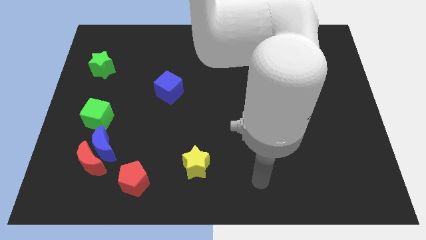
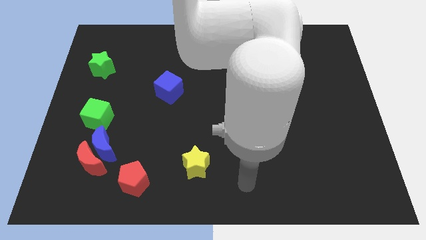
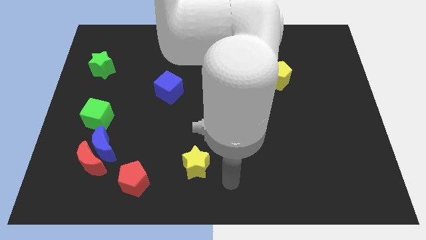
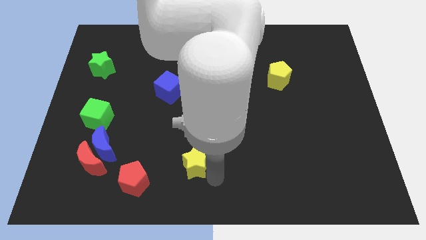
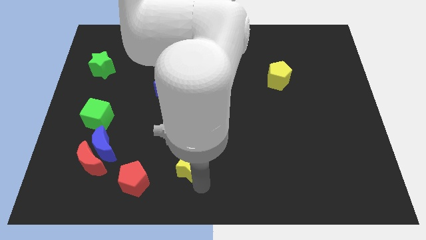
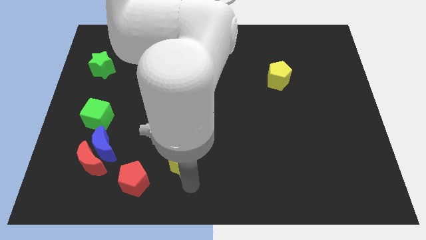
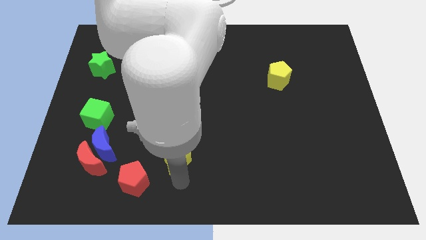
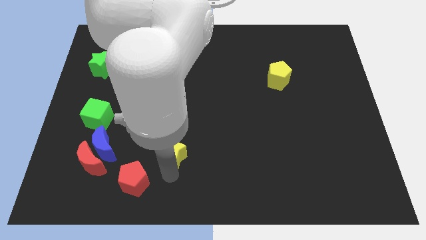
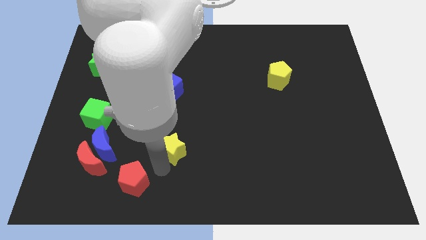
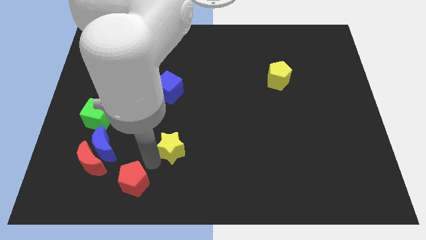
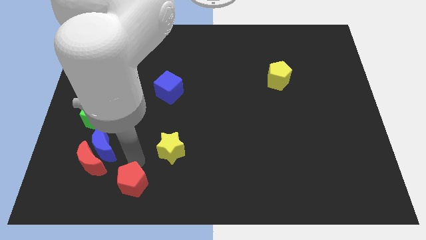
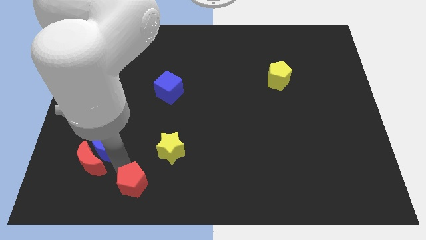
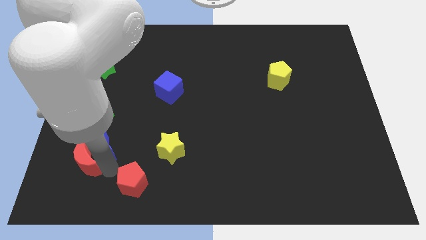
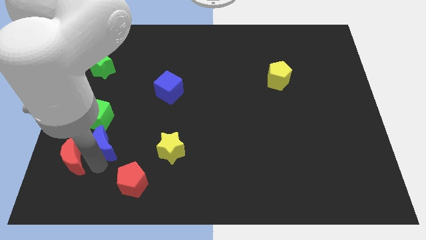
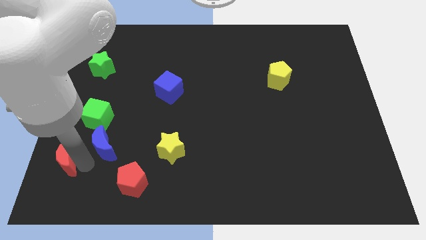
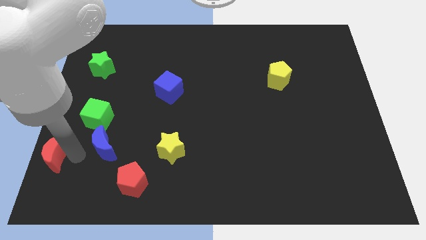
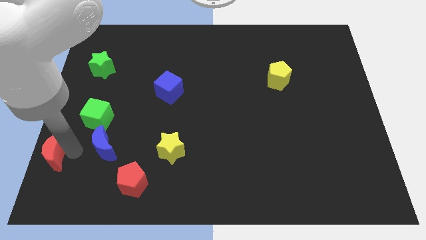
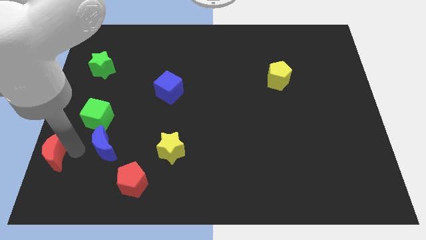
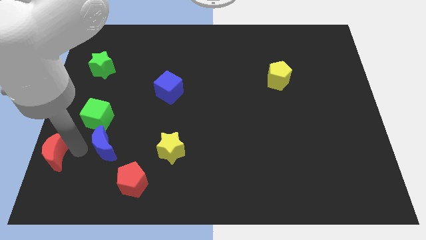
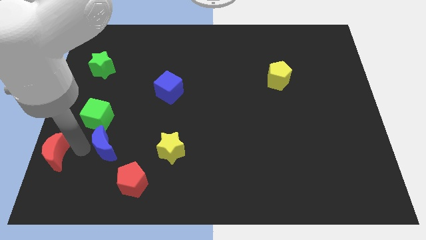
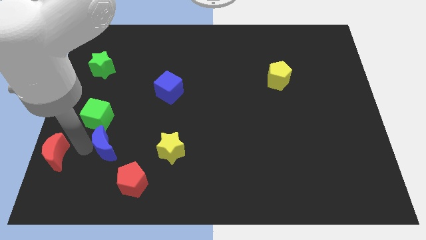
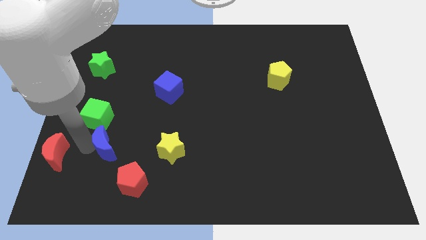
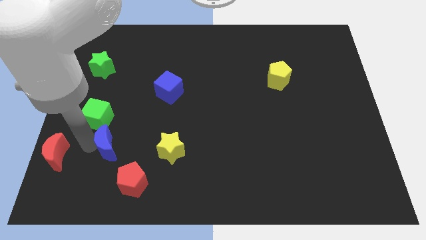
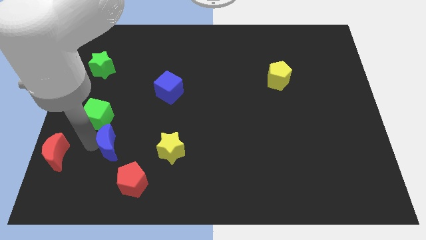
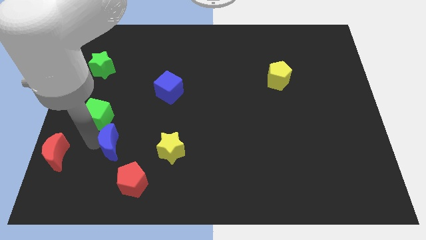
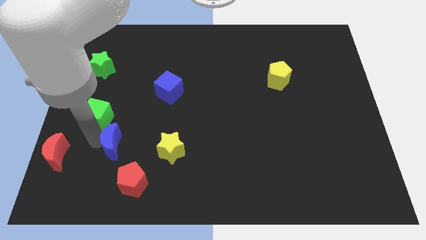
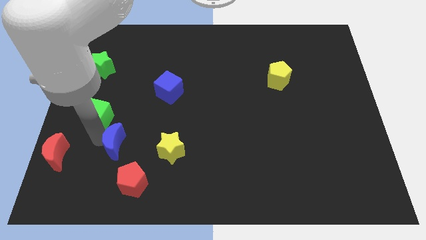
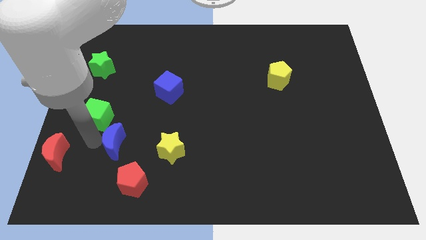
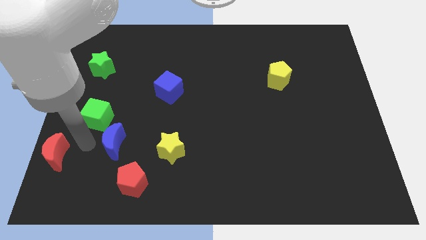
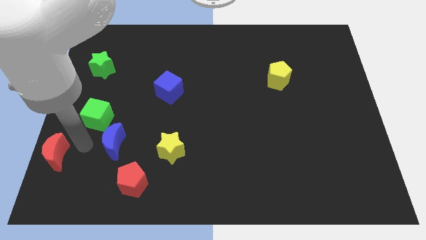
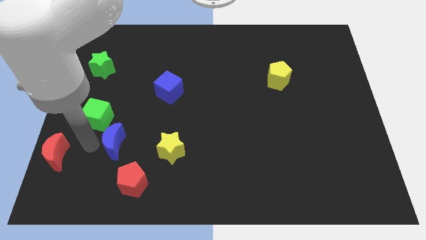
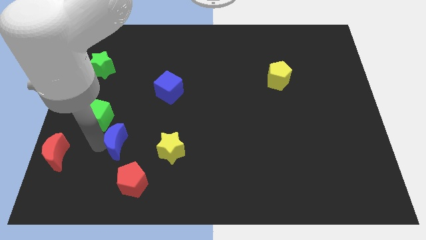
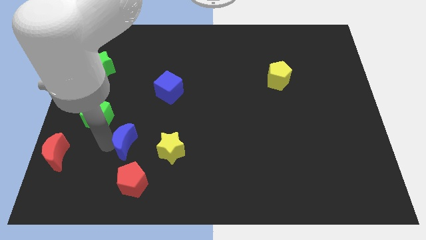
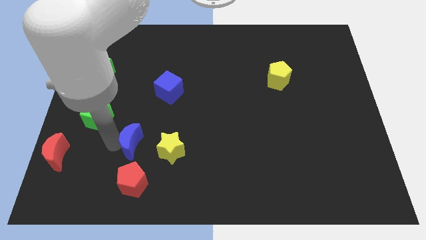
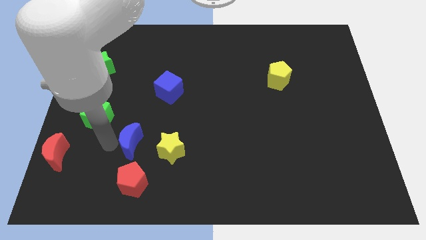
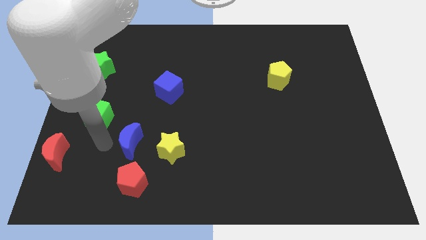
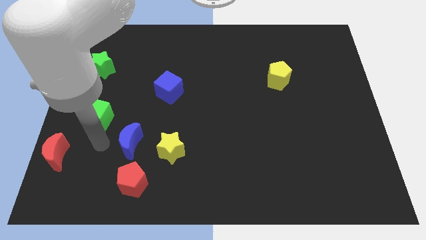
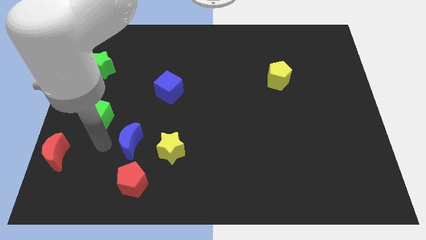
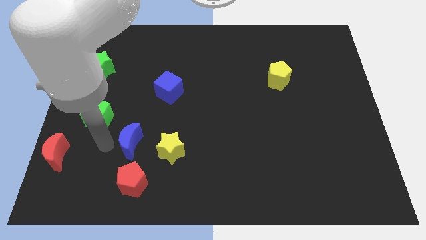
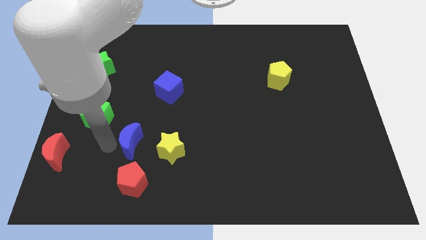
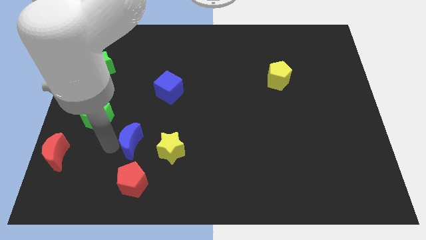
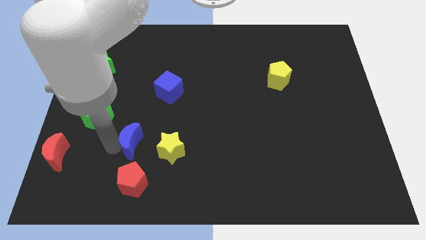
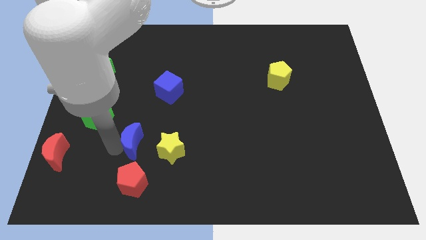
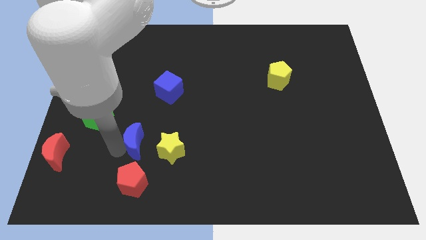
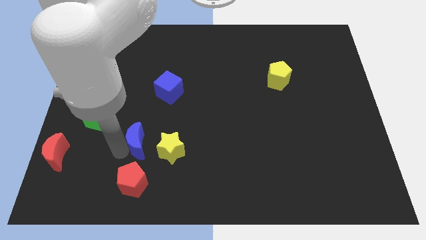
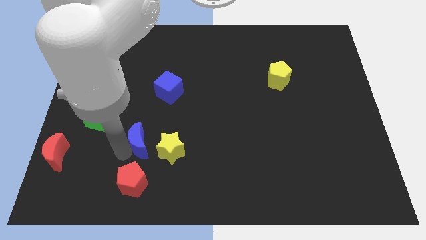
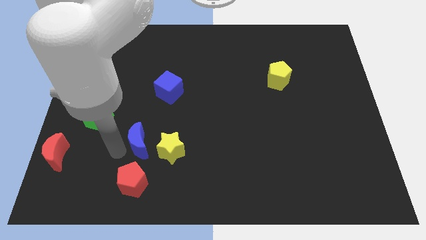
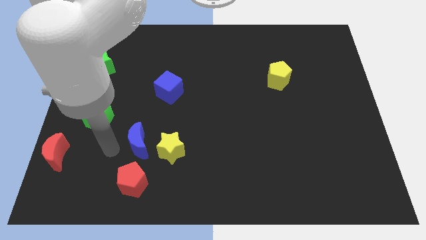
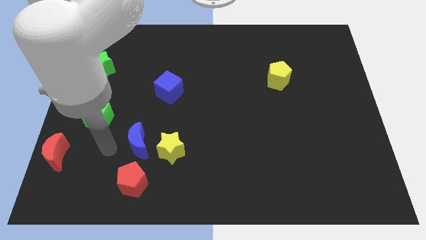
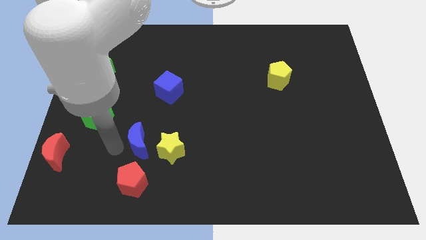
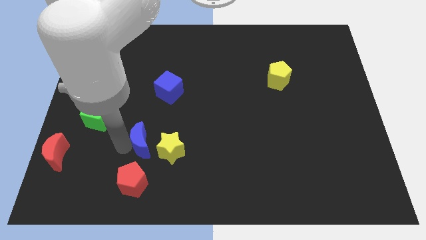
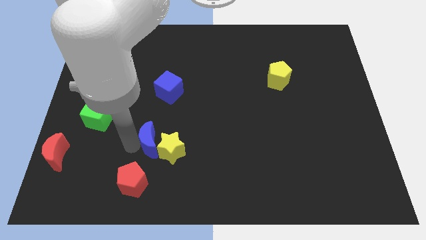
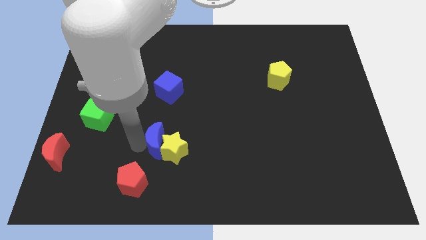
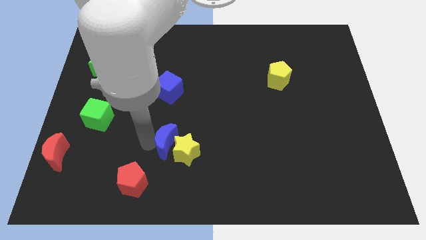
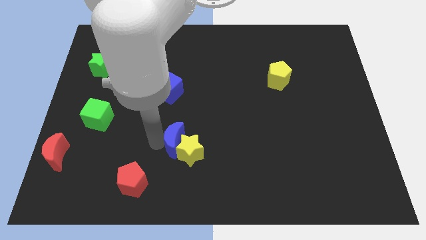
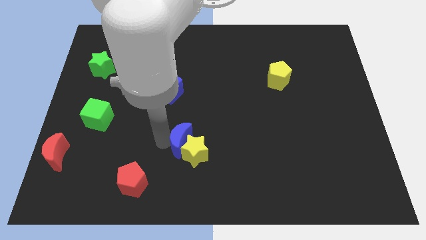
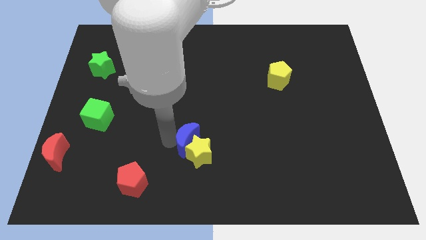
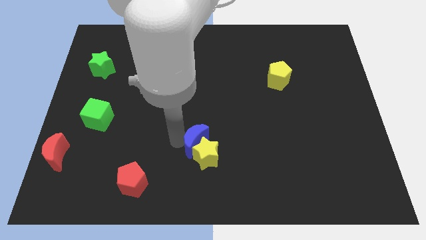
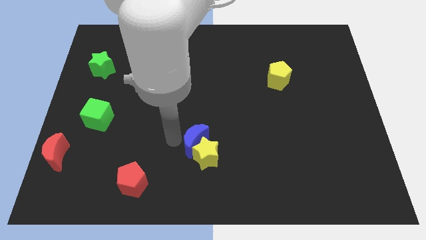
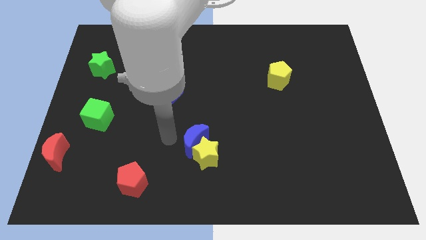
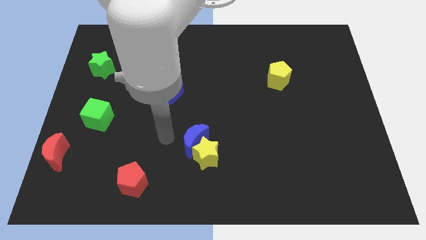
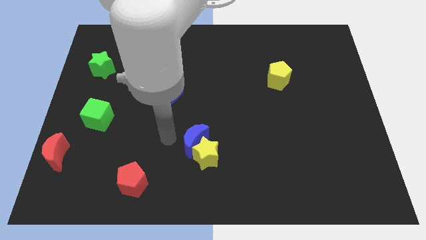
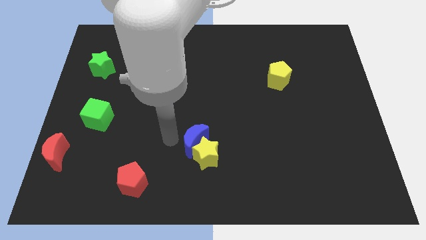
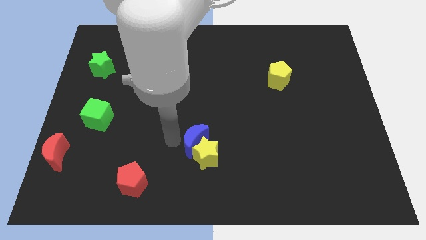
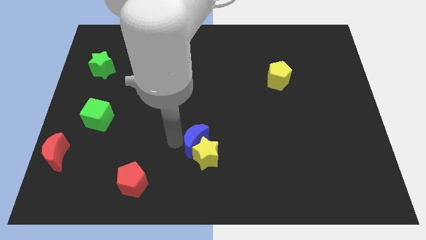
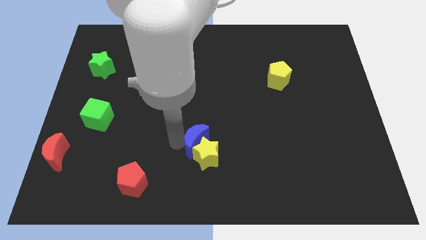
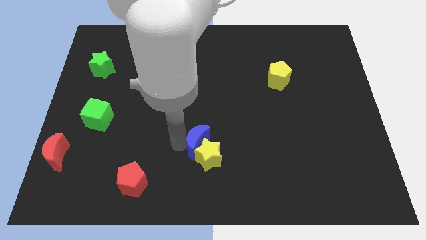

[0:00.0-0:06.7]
push the blue moon to the right

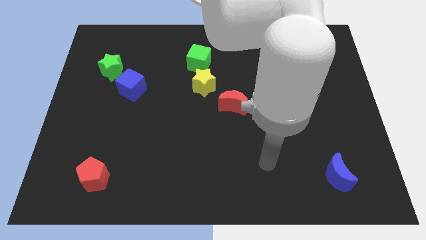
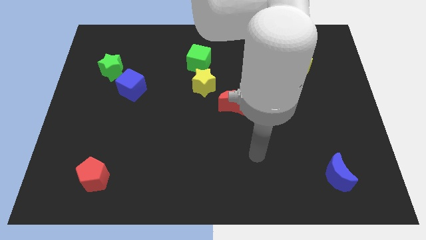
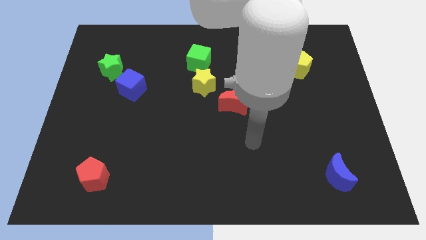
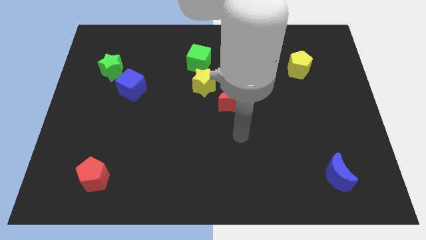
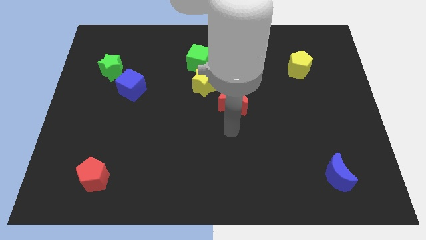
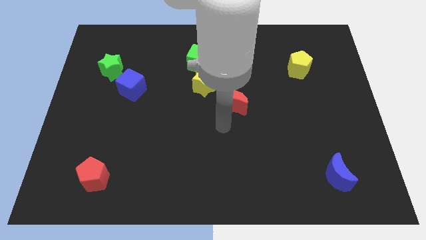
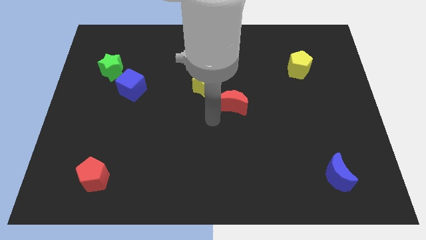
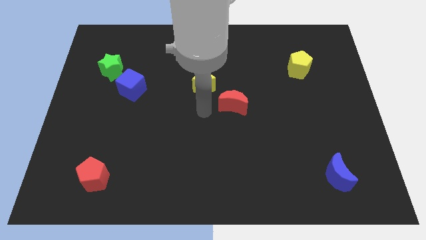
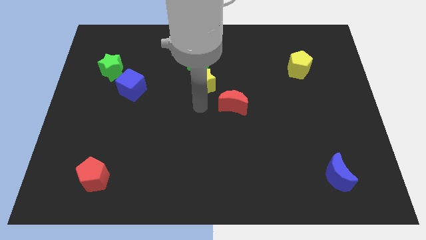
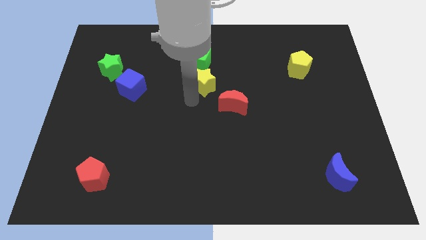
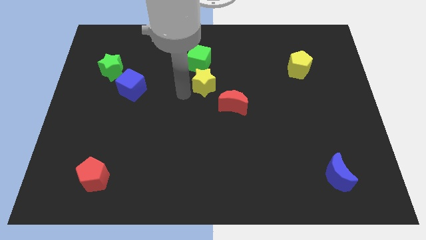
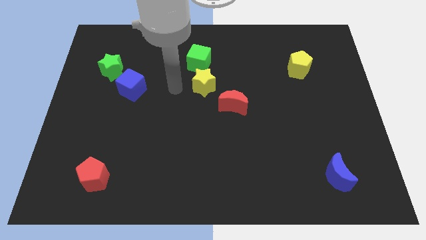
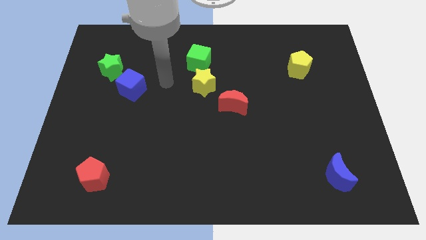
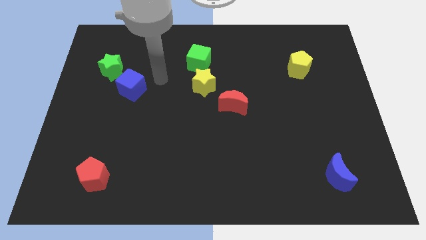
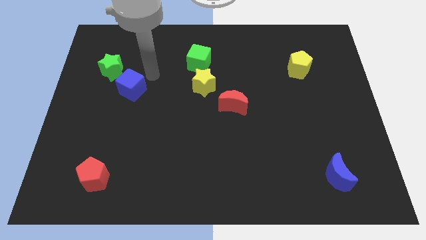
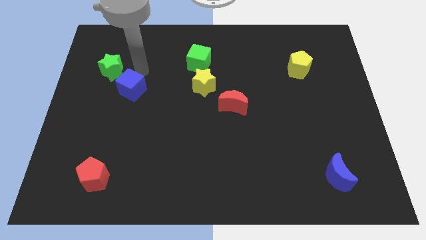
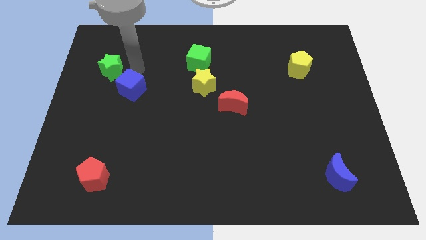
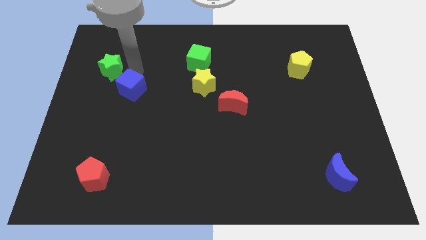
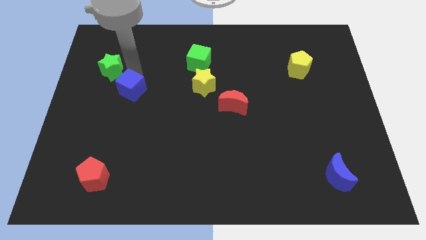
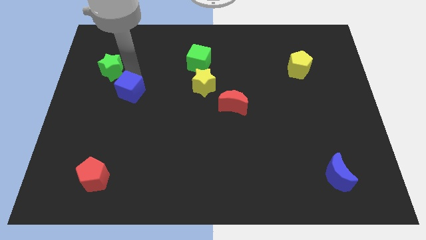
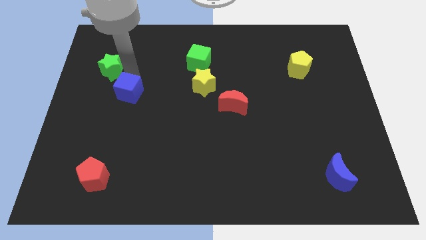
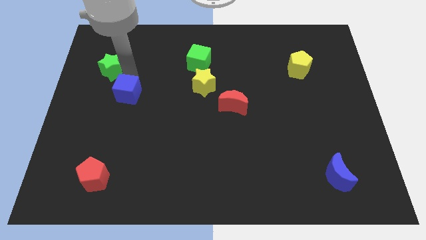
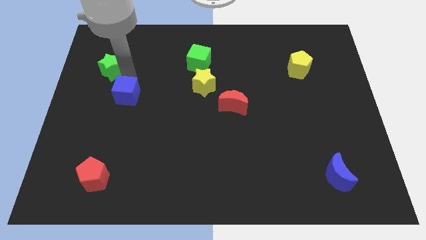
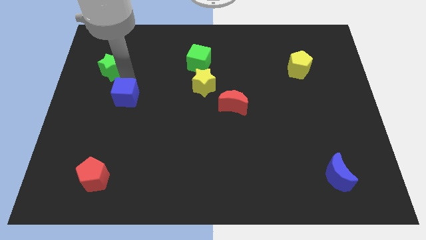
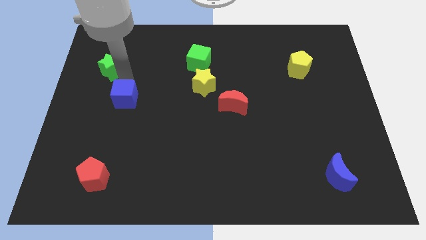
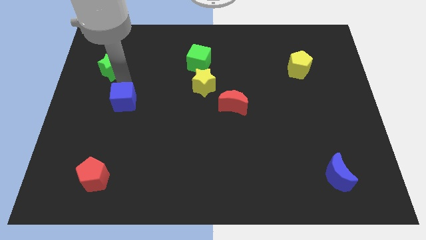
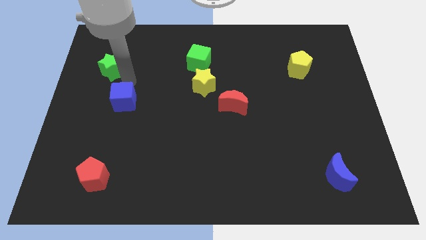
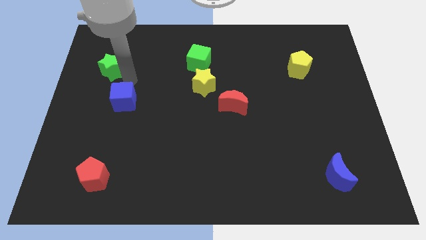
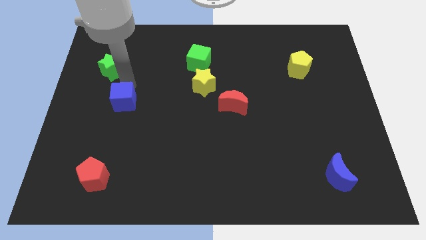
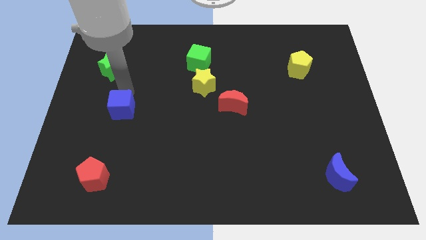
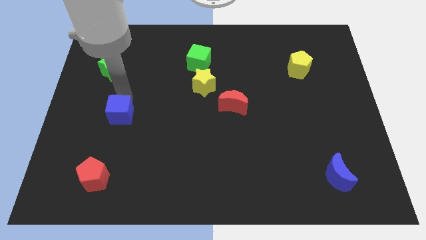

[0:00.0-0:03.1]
slightly move the blue cube downwards
